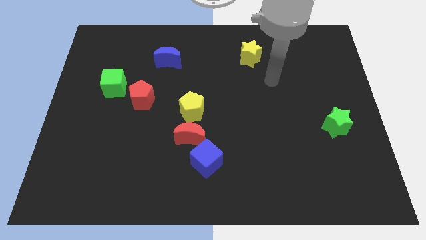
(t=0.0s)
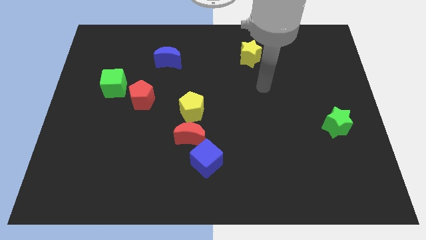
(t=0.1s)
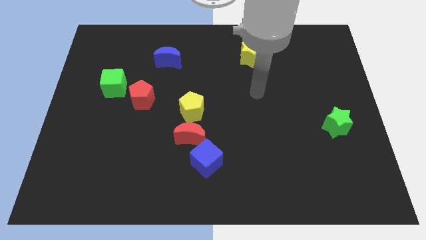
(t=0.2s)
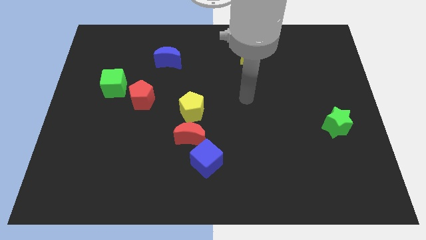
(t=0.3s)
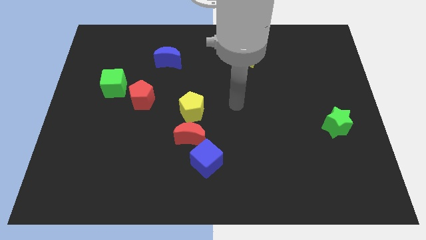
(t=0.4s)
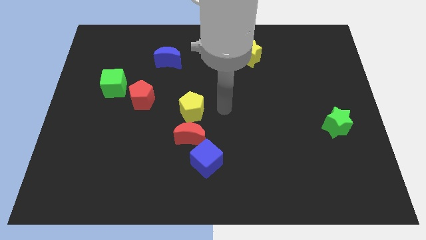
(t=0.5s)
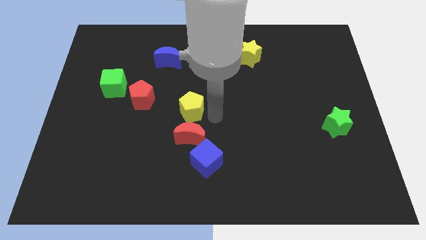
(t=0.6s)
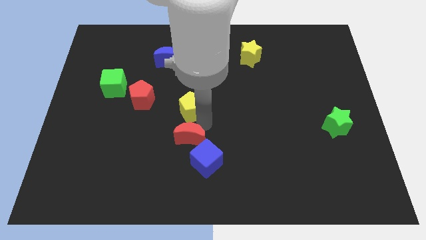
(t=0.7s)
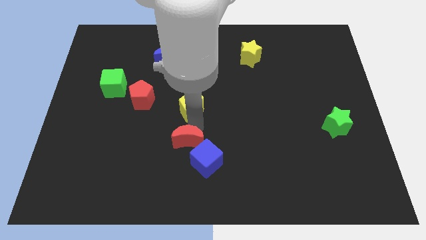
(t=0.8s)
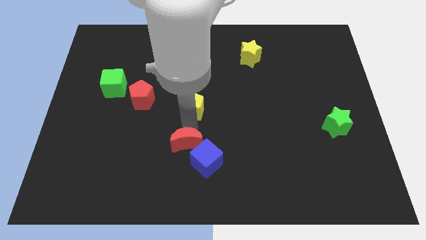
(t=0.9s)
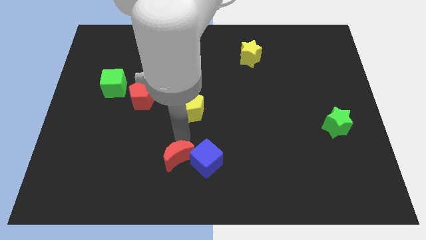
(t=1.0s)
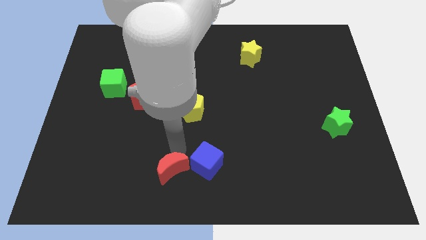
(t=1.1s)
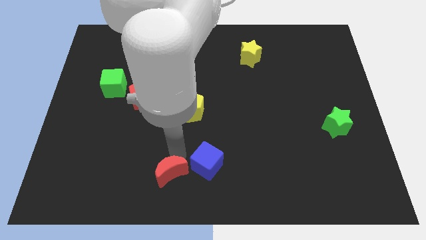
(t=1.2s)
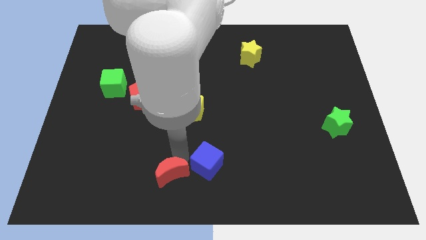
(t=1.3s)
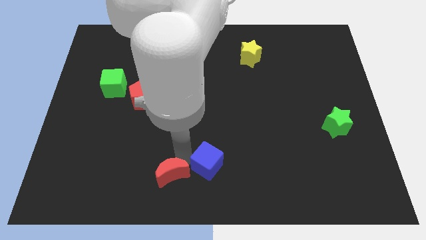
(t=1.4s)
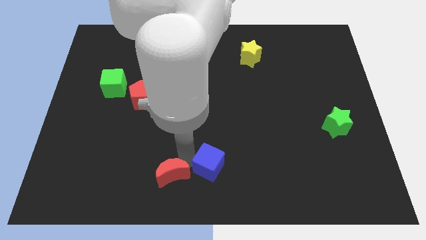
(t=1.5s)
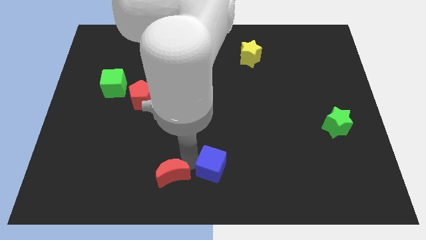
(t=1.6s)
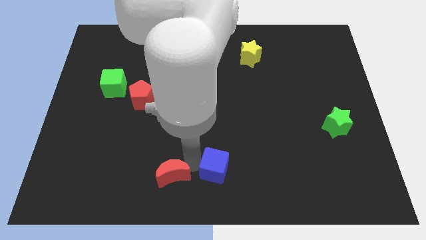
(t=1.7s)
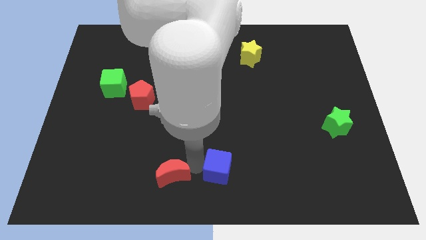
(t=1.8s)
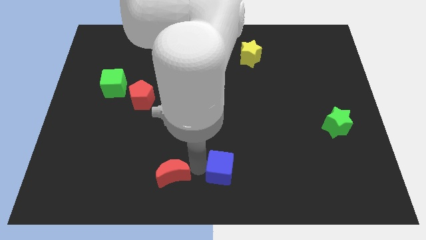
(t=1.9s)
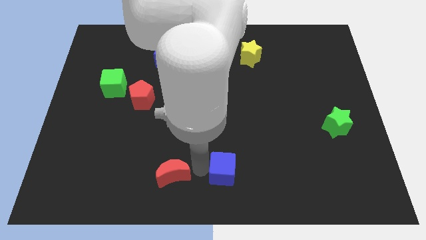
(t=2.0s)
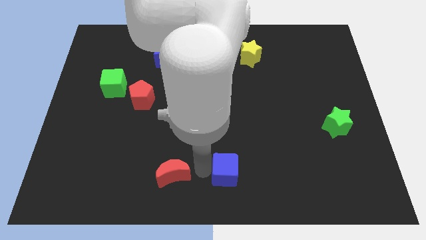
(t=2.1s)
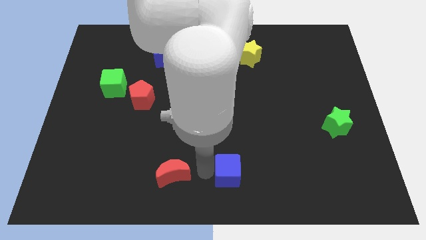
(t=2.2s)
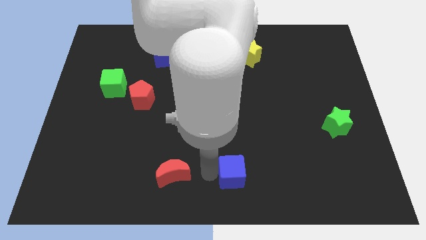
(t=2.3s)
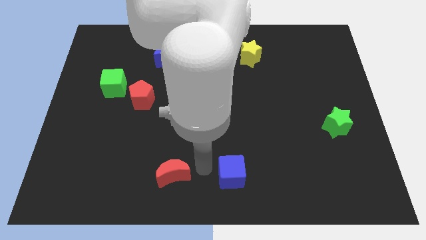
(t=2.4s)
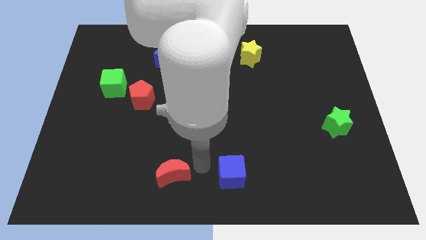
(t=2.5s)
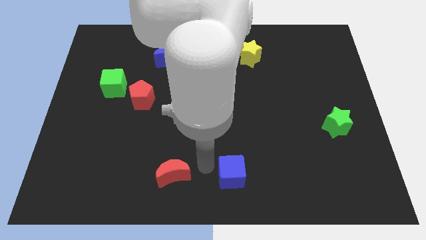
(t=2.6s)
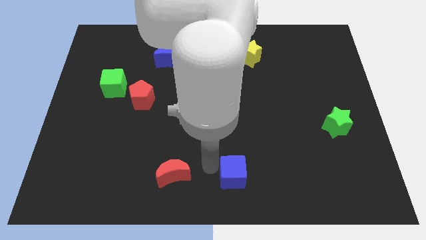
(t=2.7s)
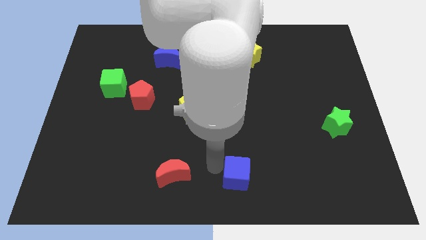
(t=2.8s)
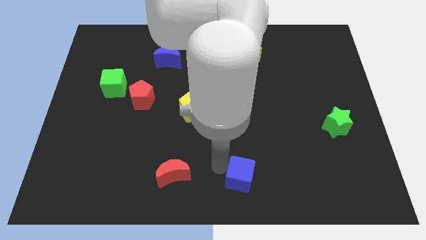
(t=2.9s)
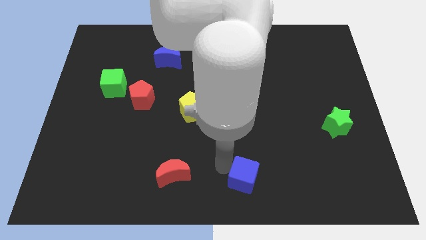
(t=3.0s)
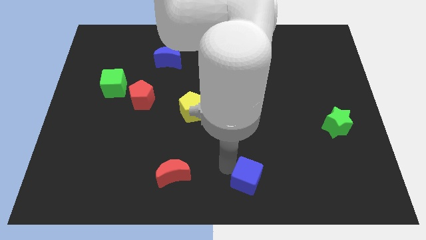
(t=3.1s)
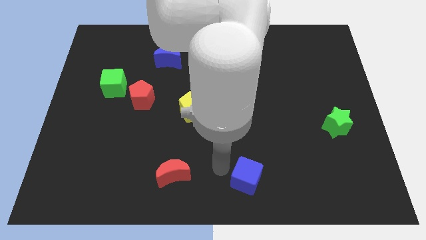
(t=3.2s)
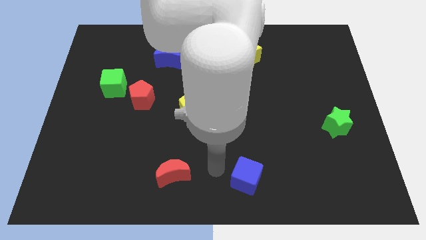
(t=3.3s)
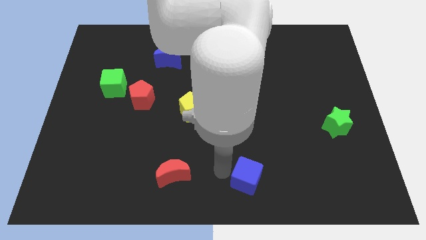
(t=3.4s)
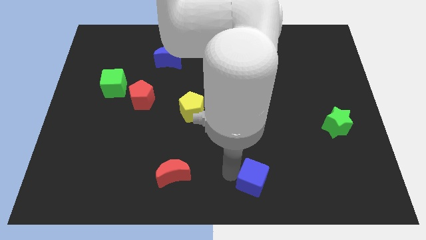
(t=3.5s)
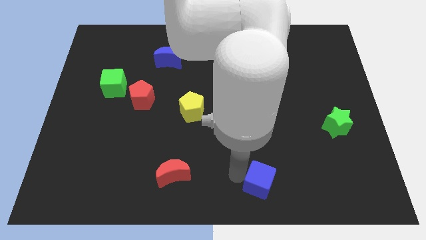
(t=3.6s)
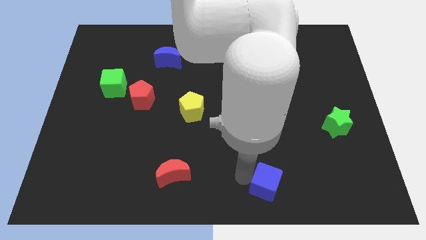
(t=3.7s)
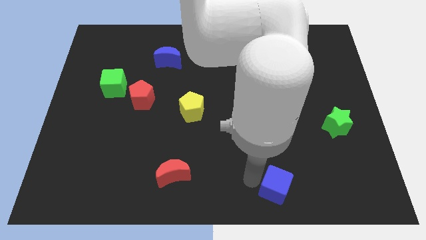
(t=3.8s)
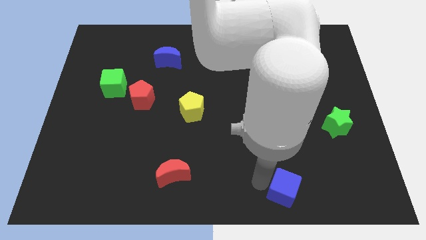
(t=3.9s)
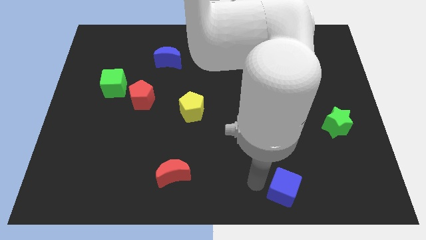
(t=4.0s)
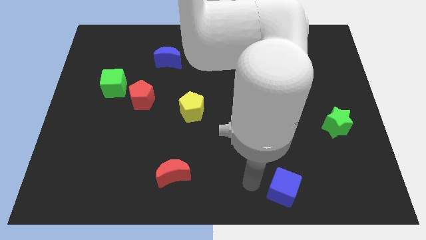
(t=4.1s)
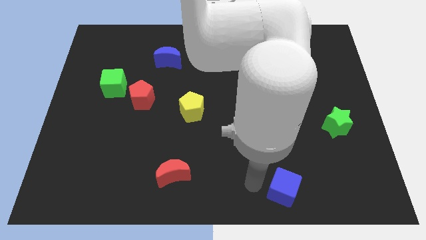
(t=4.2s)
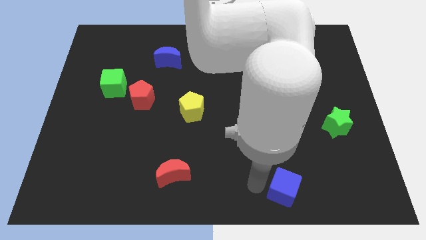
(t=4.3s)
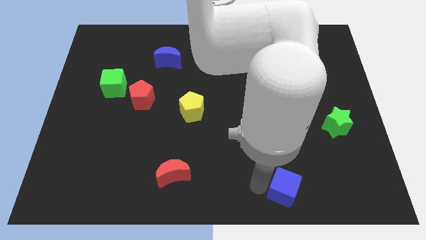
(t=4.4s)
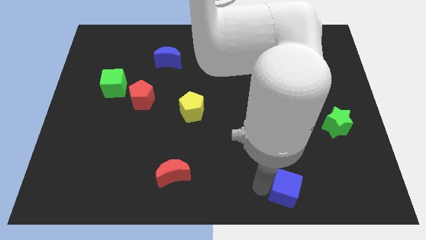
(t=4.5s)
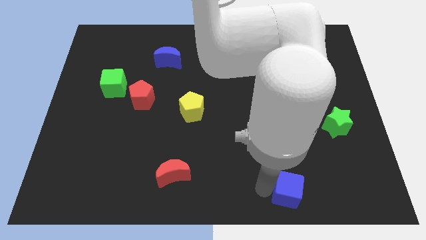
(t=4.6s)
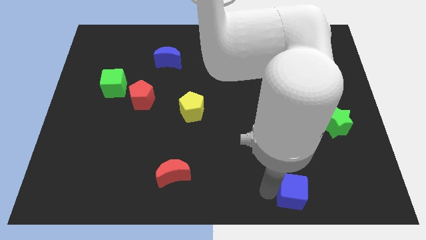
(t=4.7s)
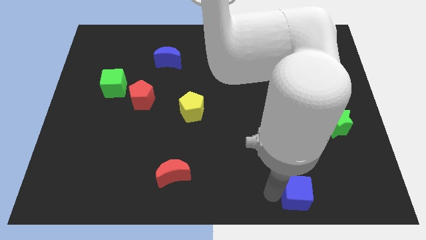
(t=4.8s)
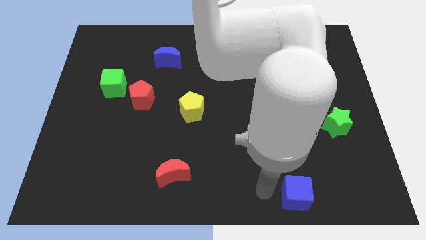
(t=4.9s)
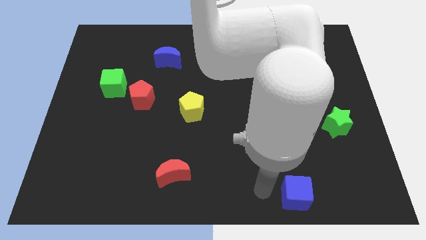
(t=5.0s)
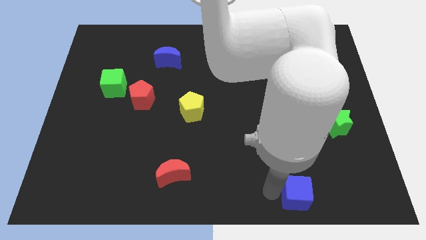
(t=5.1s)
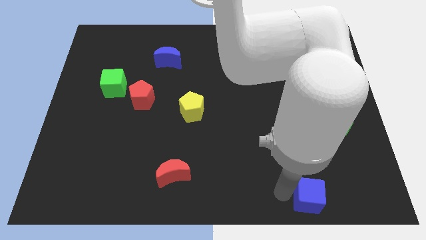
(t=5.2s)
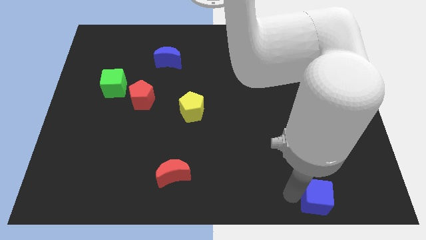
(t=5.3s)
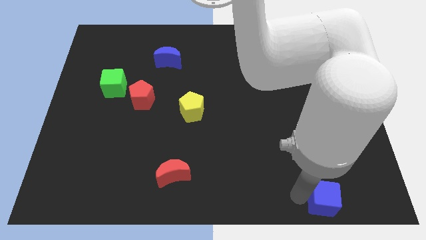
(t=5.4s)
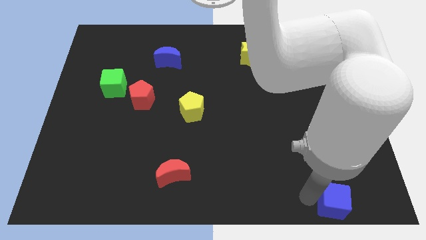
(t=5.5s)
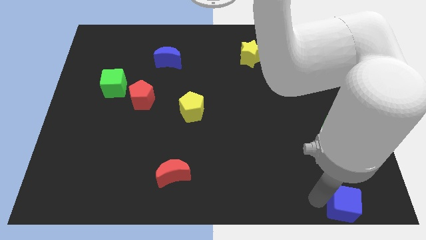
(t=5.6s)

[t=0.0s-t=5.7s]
move the blue cube to the lower right corner

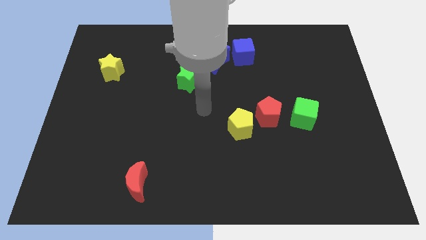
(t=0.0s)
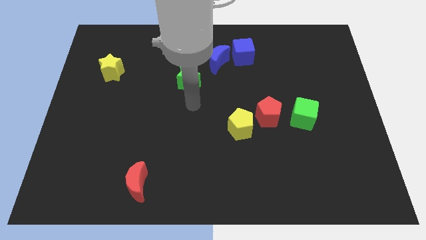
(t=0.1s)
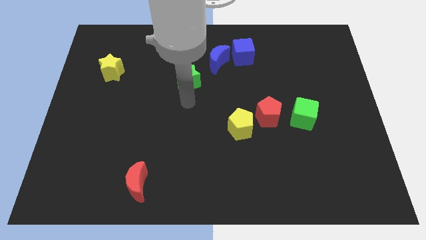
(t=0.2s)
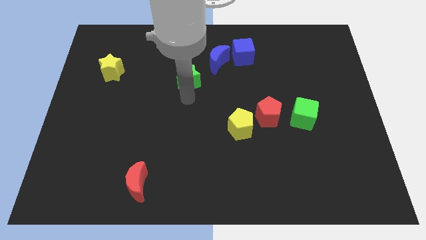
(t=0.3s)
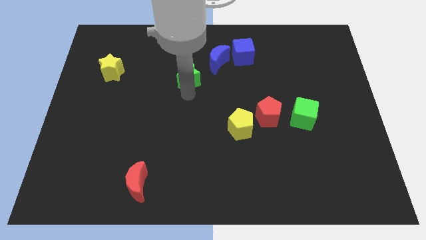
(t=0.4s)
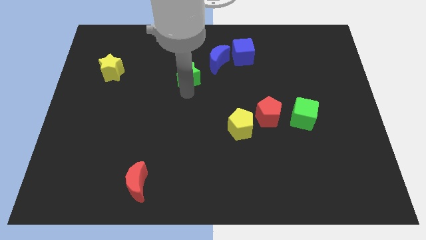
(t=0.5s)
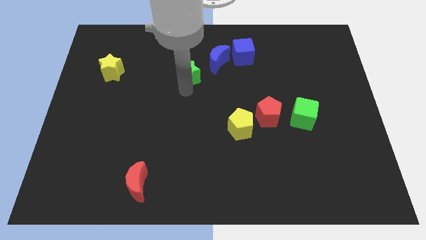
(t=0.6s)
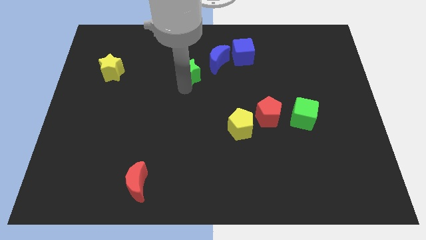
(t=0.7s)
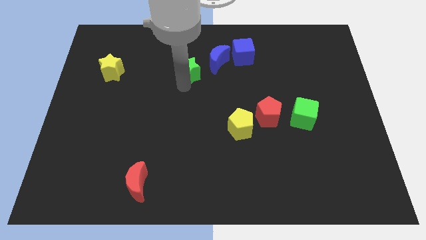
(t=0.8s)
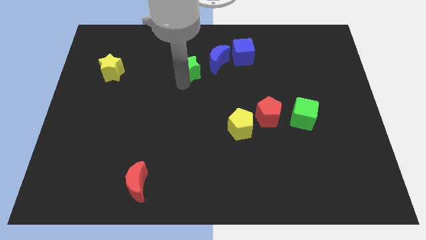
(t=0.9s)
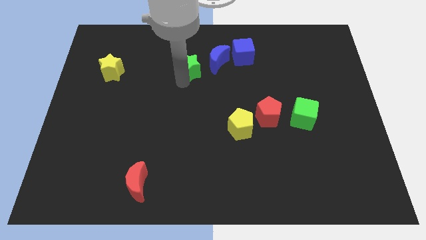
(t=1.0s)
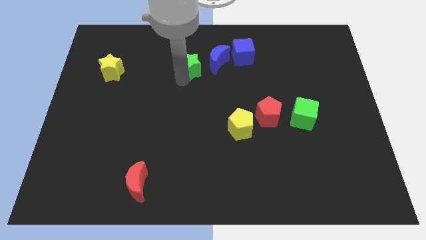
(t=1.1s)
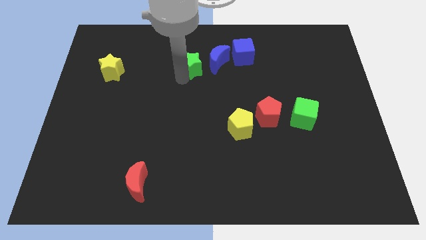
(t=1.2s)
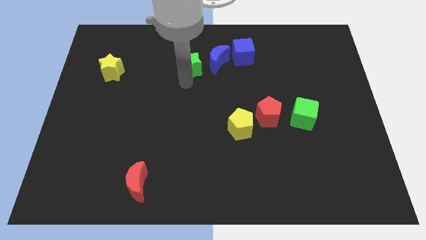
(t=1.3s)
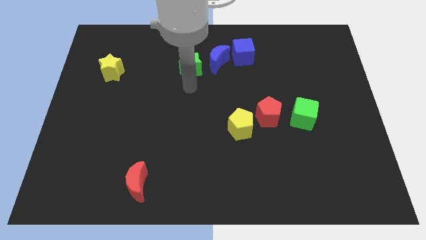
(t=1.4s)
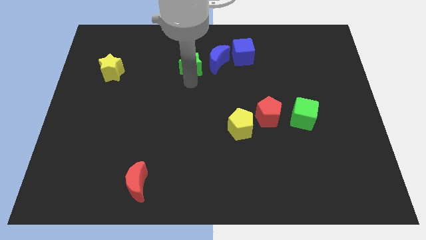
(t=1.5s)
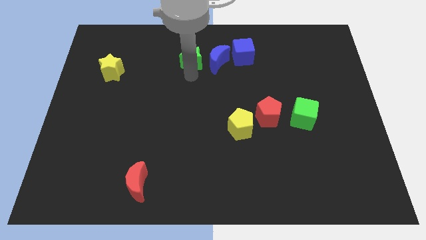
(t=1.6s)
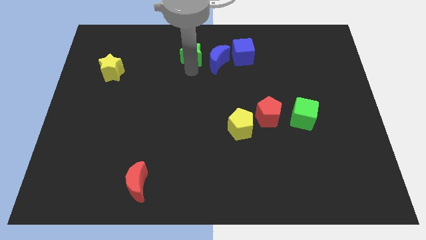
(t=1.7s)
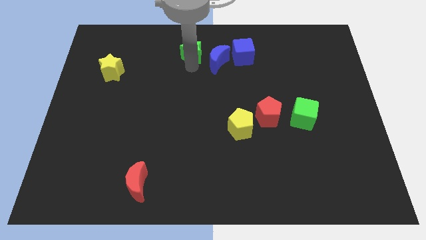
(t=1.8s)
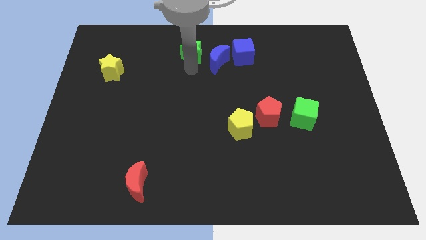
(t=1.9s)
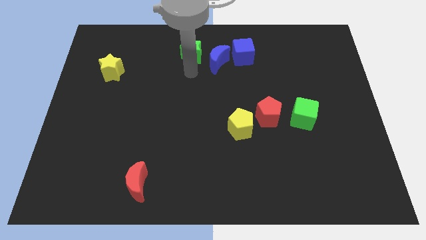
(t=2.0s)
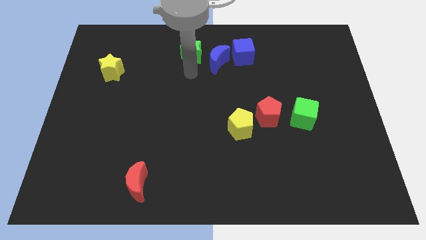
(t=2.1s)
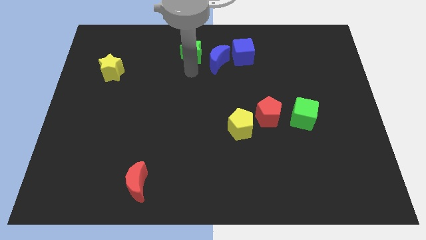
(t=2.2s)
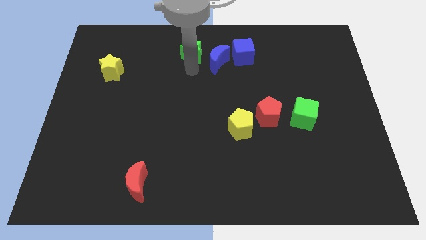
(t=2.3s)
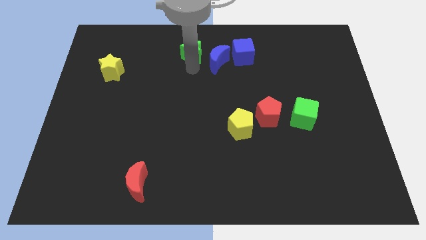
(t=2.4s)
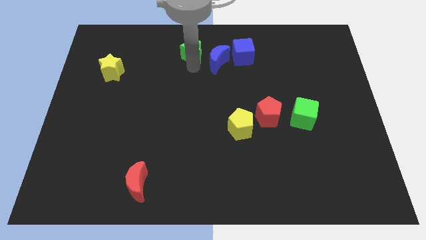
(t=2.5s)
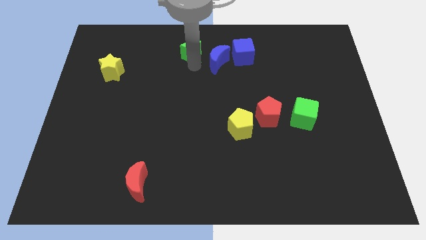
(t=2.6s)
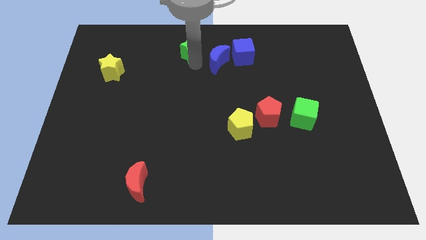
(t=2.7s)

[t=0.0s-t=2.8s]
put the green star to the top
